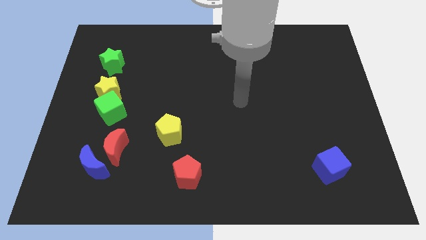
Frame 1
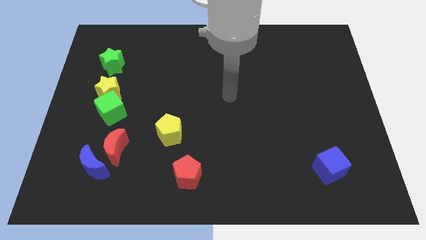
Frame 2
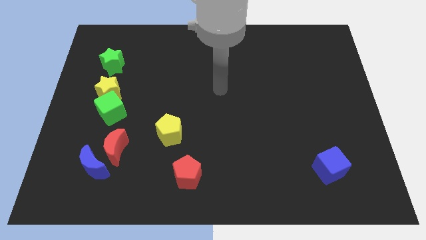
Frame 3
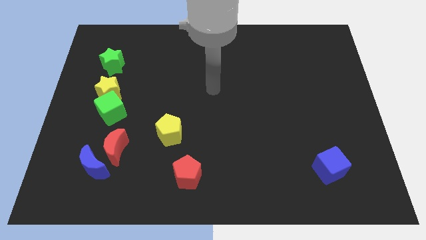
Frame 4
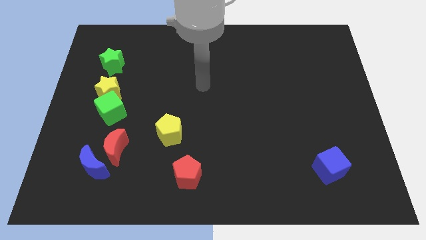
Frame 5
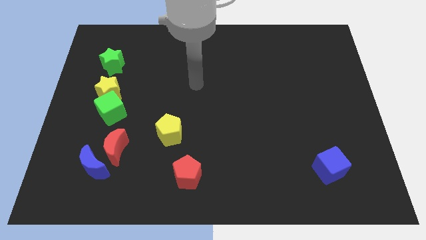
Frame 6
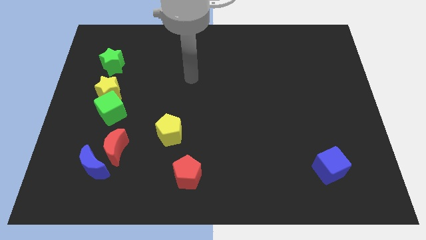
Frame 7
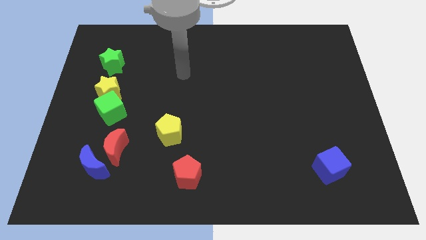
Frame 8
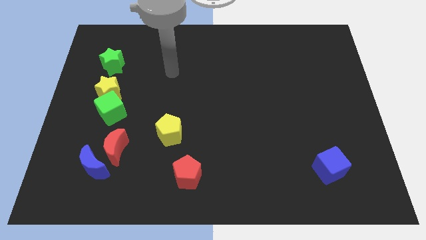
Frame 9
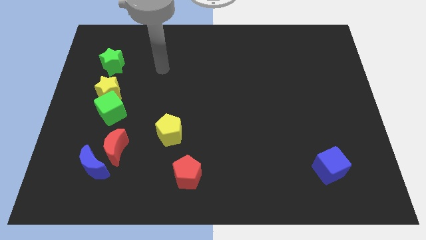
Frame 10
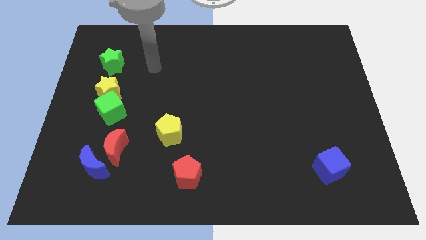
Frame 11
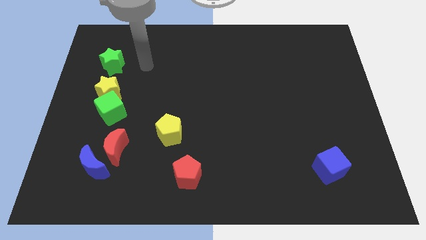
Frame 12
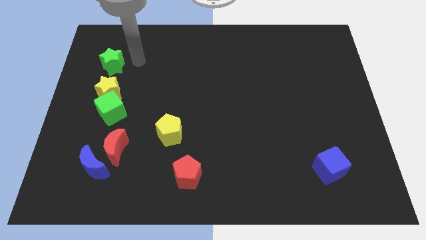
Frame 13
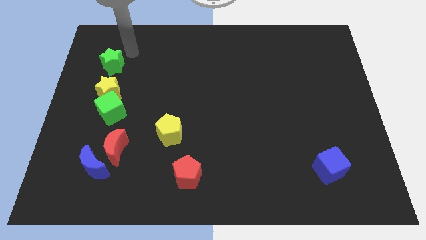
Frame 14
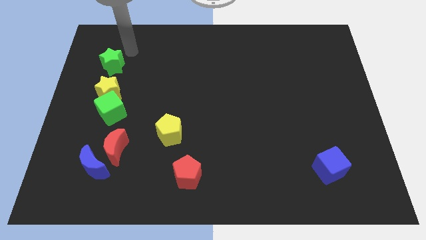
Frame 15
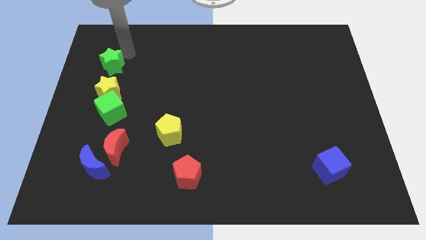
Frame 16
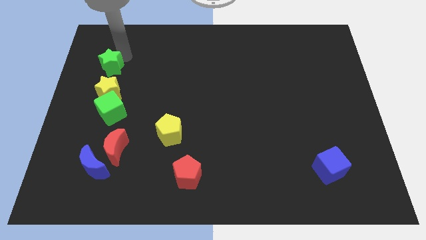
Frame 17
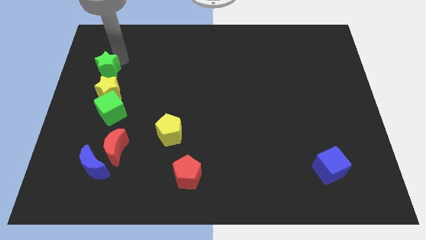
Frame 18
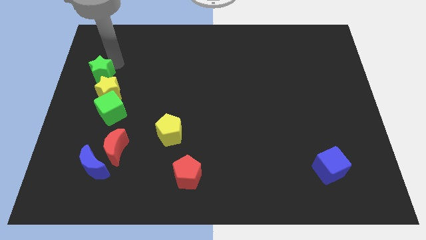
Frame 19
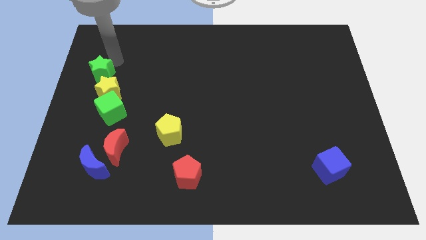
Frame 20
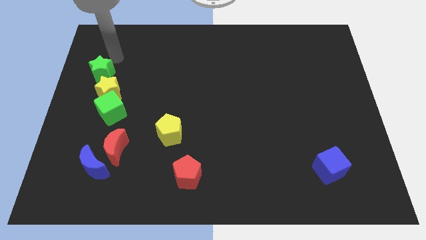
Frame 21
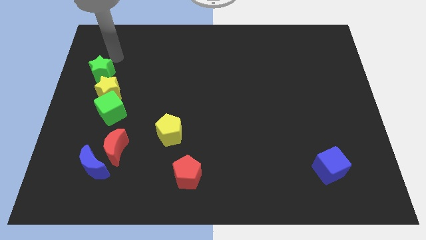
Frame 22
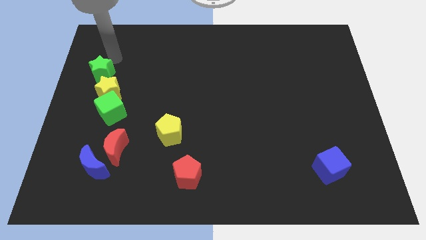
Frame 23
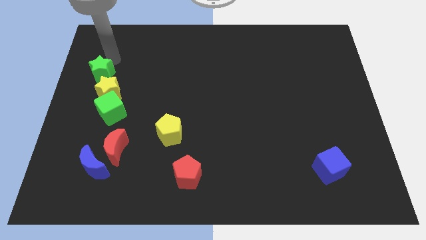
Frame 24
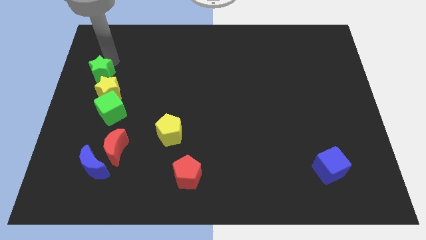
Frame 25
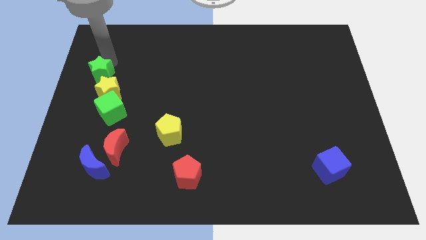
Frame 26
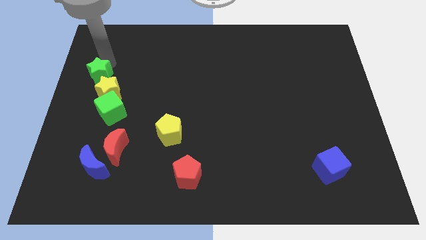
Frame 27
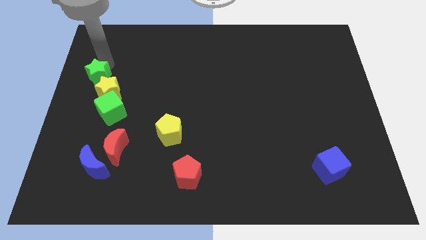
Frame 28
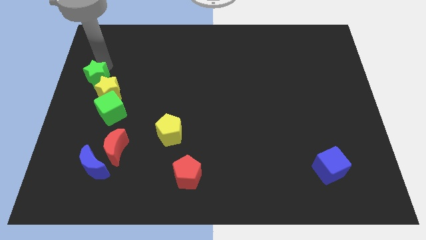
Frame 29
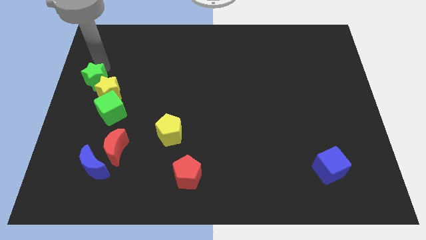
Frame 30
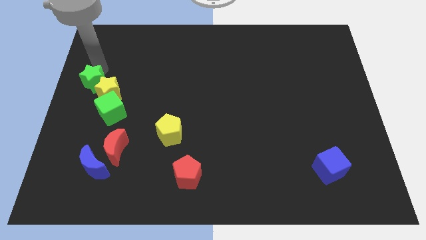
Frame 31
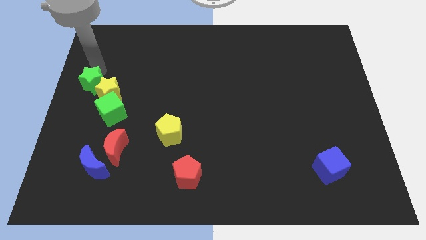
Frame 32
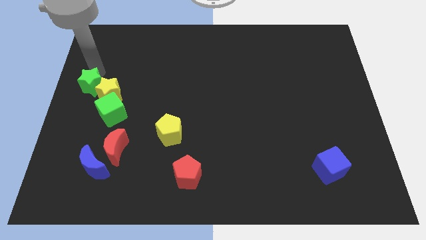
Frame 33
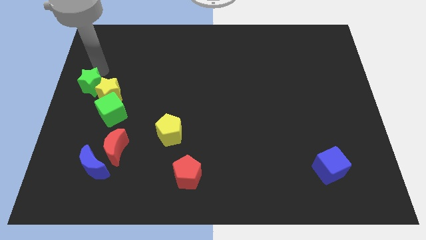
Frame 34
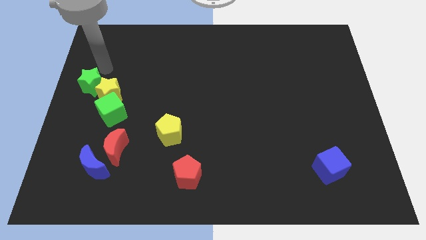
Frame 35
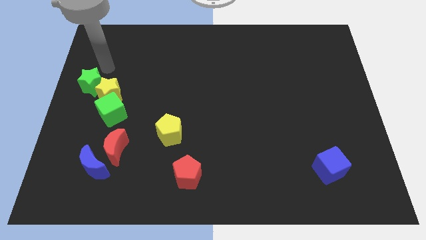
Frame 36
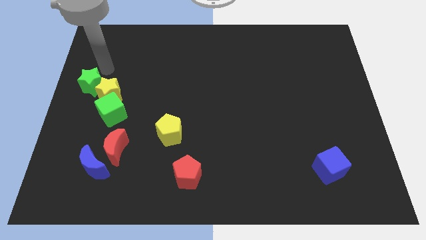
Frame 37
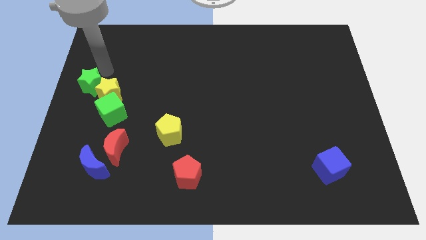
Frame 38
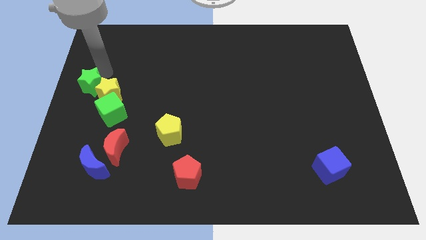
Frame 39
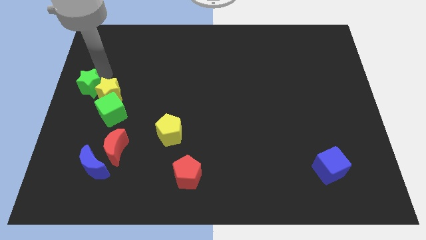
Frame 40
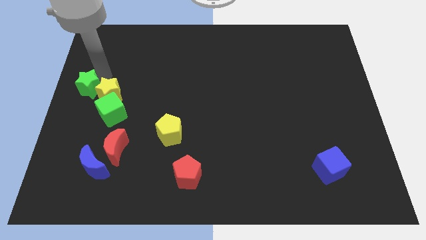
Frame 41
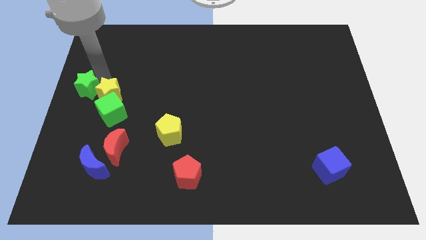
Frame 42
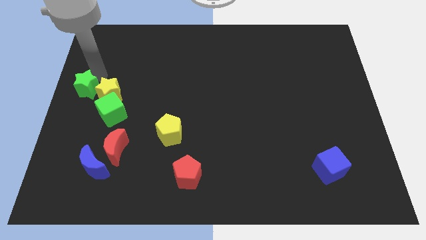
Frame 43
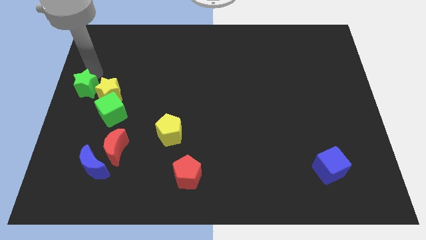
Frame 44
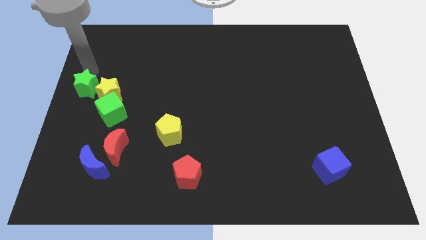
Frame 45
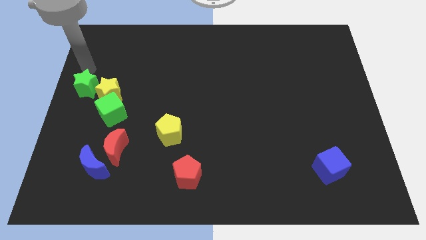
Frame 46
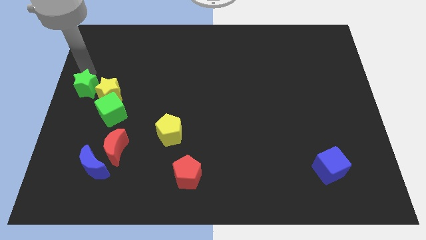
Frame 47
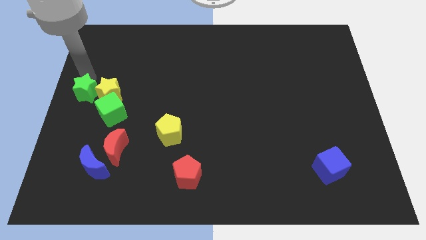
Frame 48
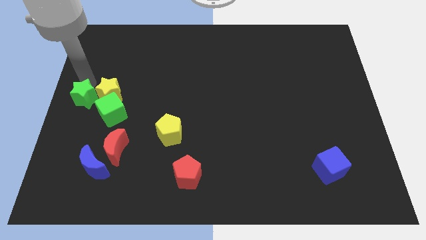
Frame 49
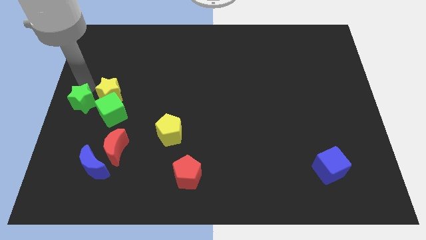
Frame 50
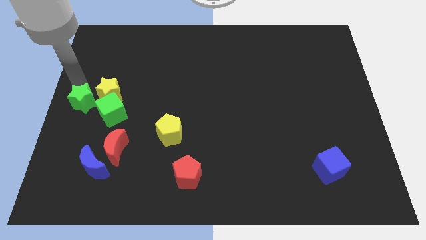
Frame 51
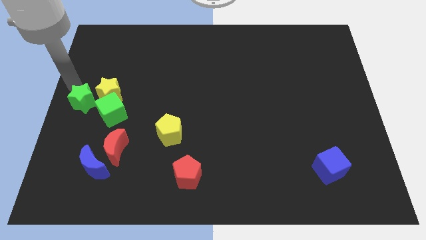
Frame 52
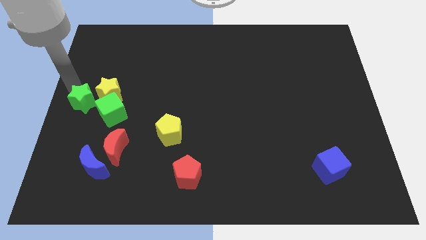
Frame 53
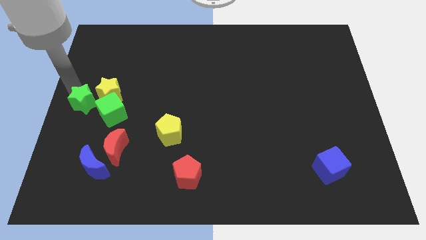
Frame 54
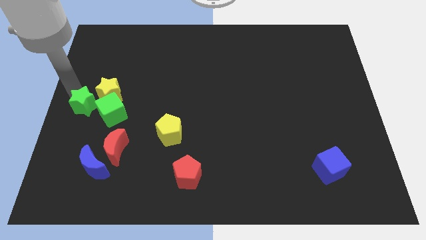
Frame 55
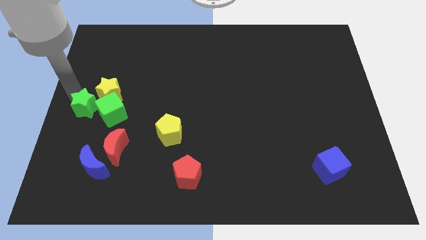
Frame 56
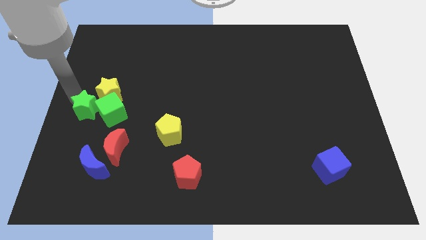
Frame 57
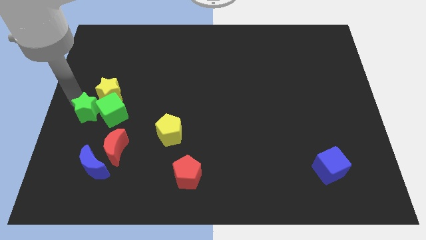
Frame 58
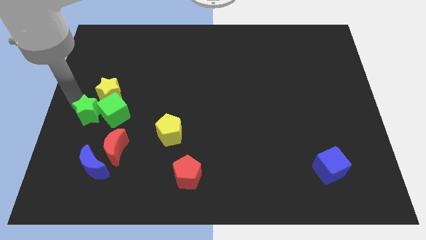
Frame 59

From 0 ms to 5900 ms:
move the green star to the top side of the blue moon

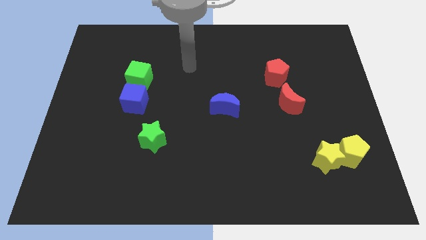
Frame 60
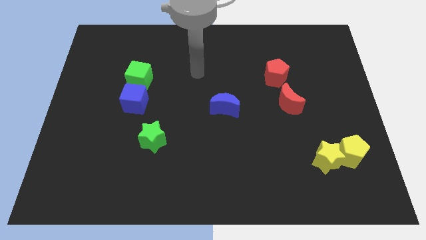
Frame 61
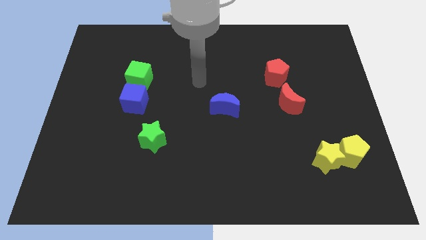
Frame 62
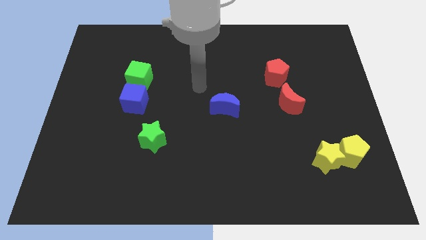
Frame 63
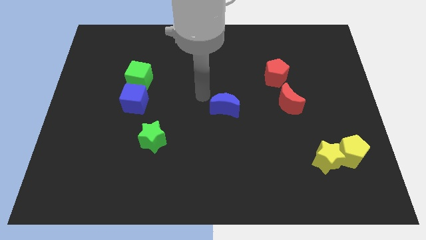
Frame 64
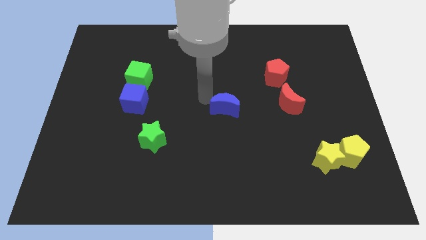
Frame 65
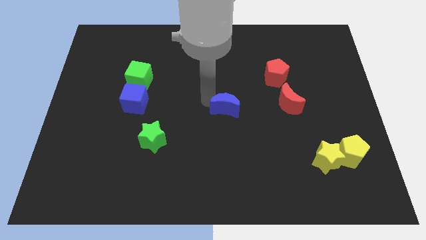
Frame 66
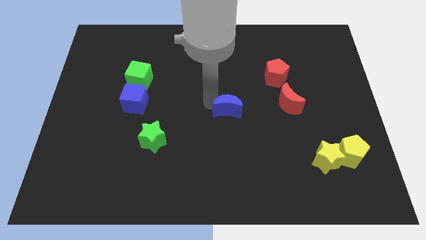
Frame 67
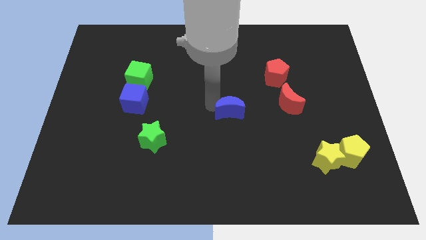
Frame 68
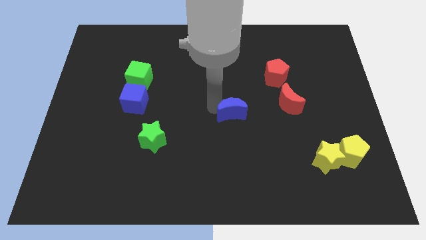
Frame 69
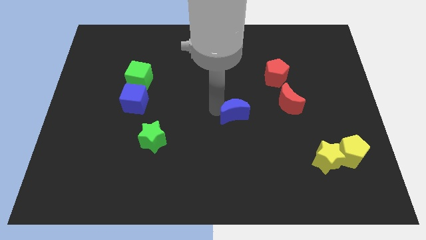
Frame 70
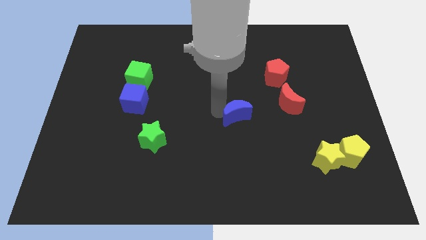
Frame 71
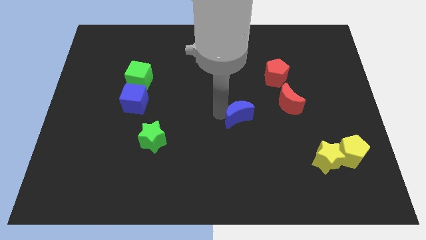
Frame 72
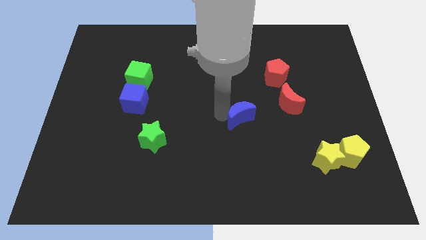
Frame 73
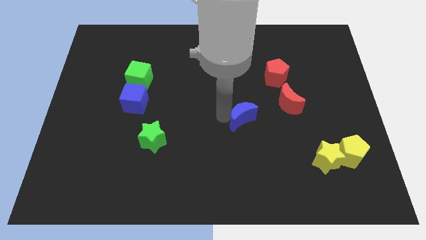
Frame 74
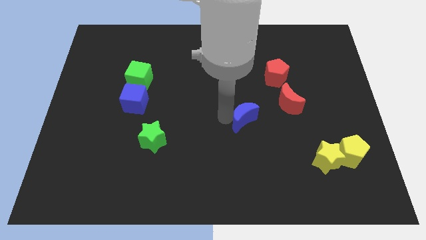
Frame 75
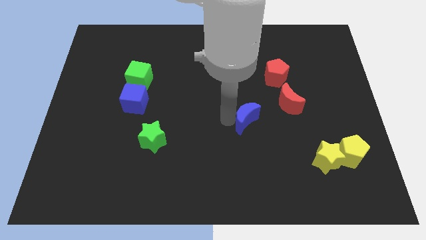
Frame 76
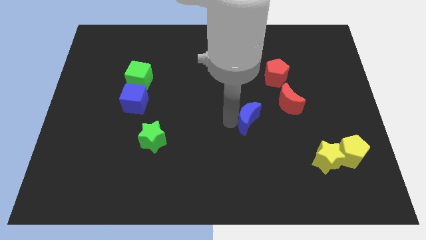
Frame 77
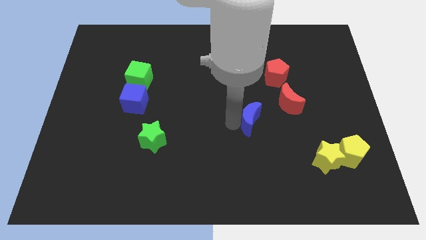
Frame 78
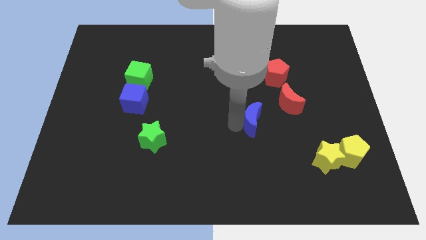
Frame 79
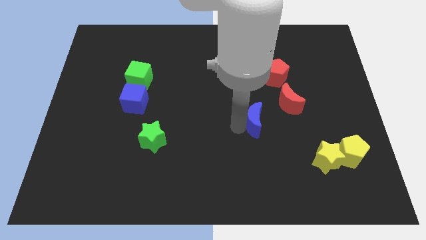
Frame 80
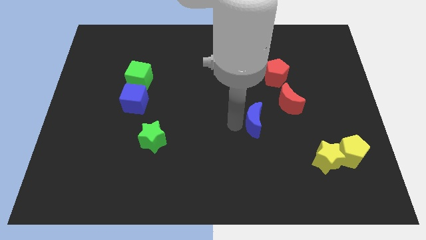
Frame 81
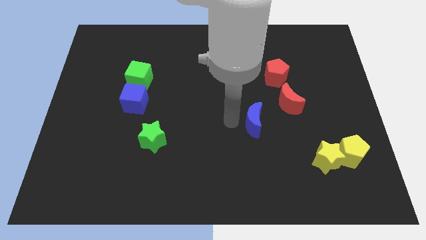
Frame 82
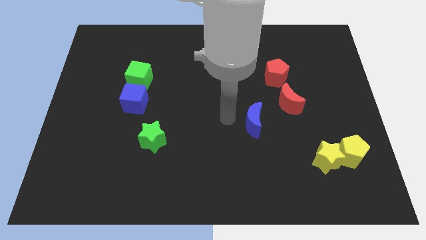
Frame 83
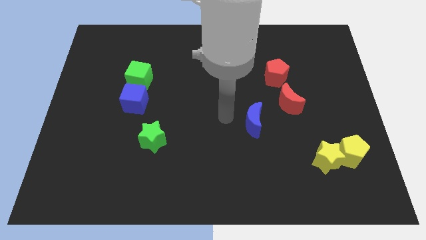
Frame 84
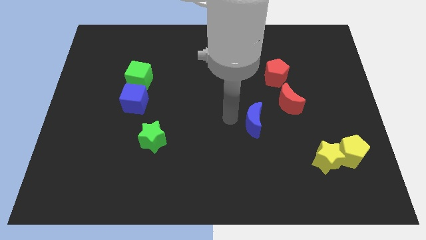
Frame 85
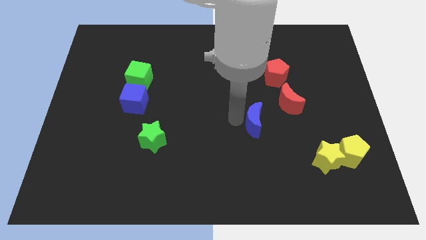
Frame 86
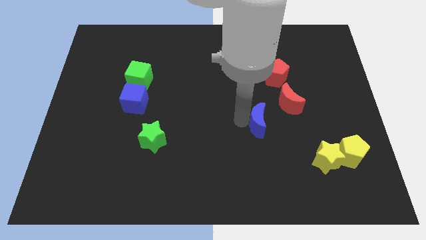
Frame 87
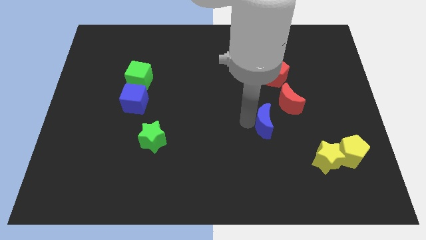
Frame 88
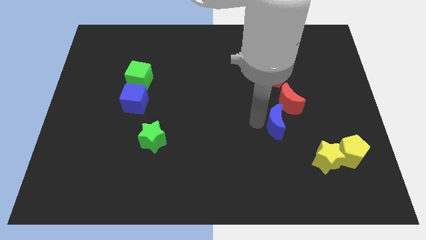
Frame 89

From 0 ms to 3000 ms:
move the blue moon below the red moon
